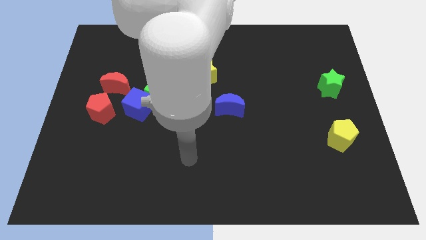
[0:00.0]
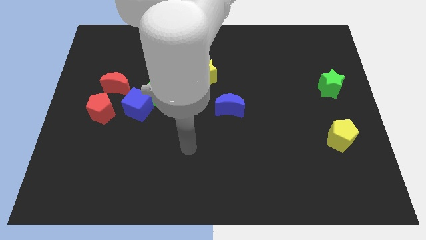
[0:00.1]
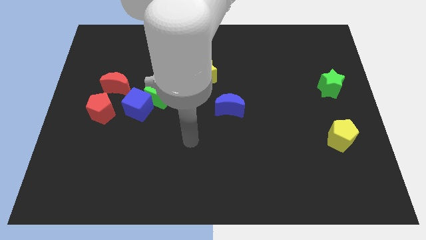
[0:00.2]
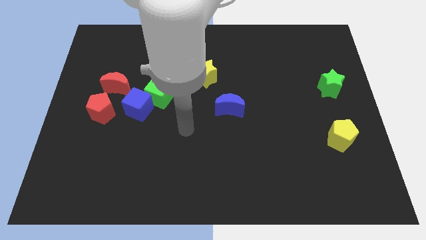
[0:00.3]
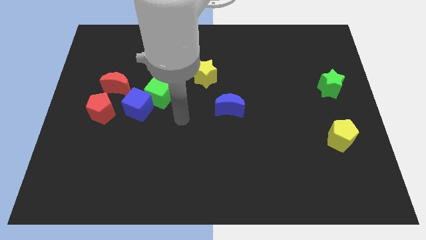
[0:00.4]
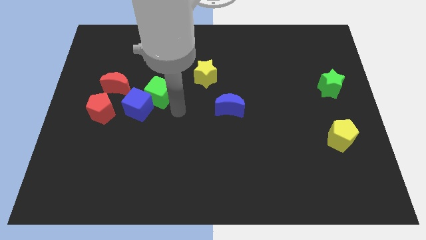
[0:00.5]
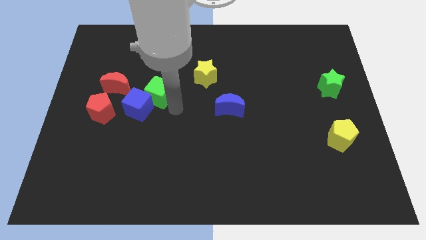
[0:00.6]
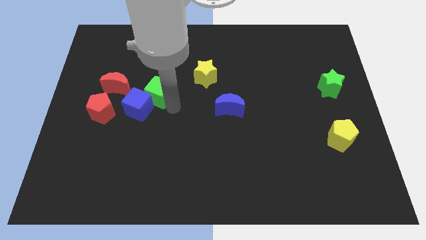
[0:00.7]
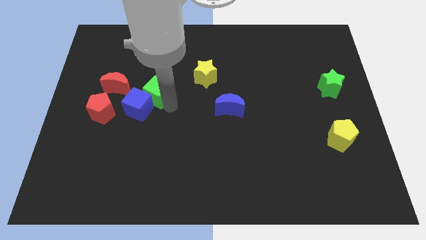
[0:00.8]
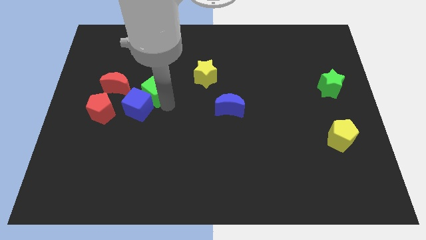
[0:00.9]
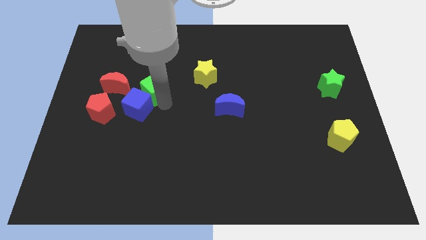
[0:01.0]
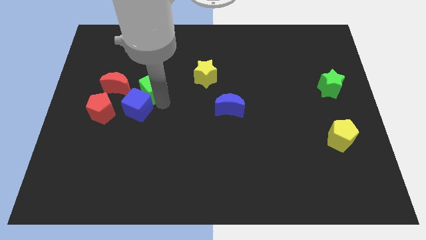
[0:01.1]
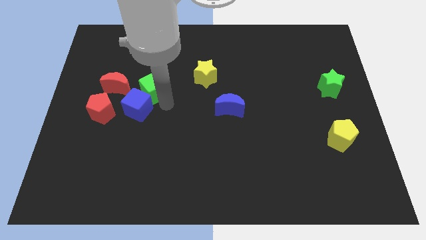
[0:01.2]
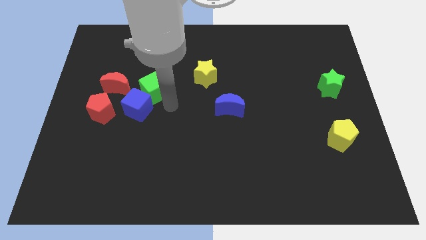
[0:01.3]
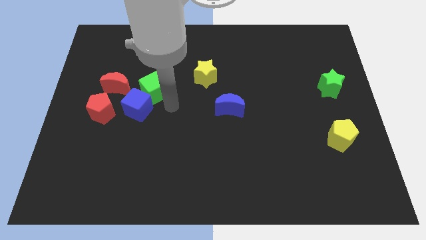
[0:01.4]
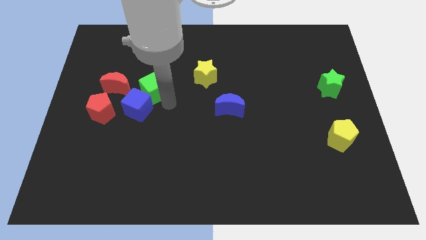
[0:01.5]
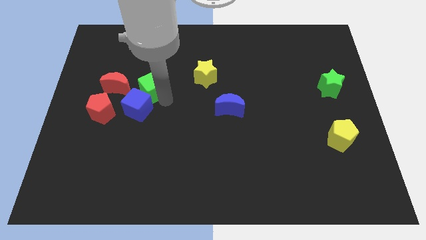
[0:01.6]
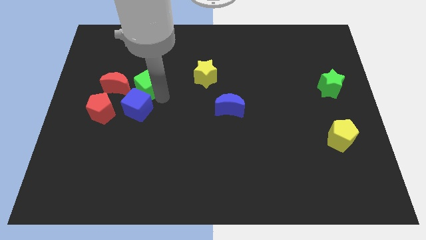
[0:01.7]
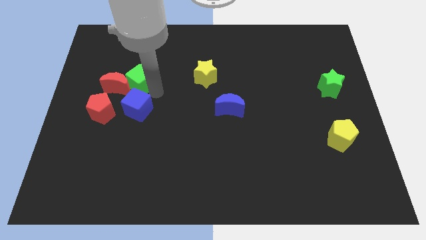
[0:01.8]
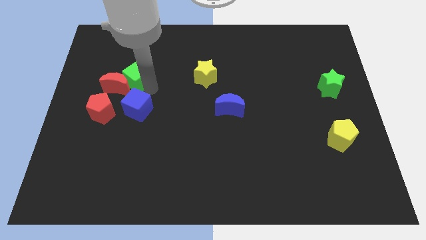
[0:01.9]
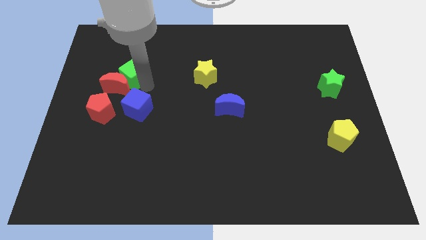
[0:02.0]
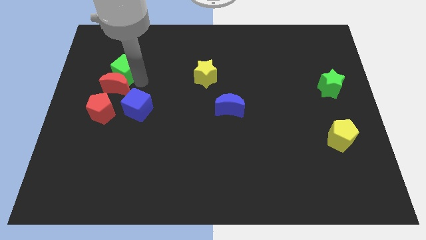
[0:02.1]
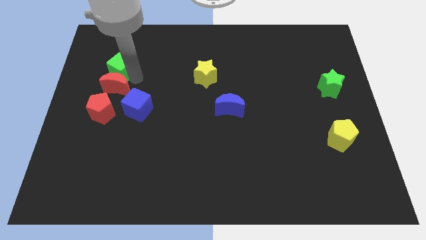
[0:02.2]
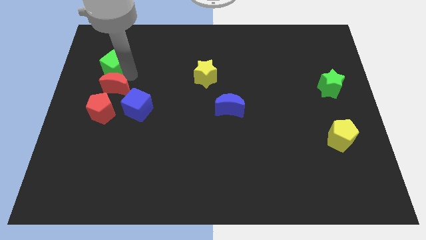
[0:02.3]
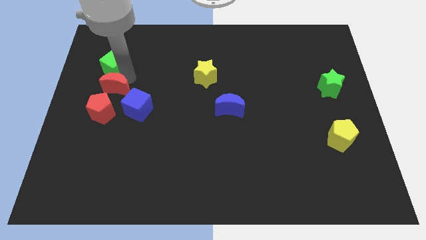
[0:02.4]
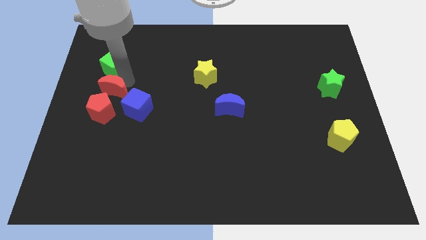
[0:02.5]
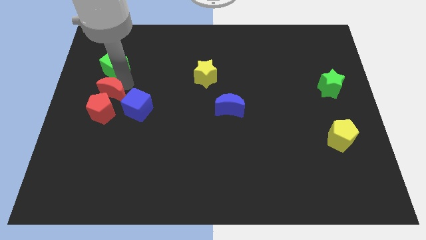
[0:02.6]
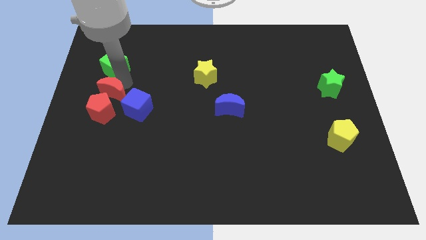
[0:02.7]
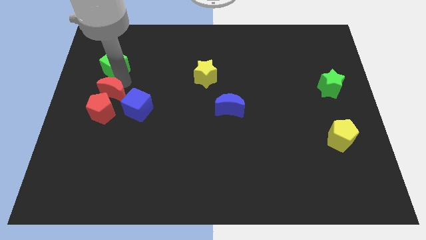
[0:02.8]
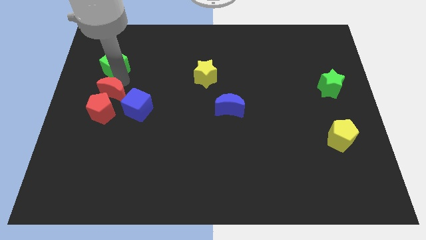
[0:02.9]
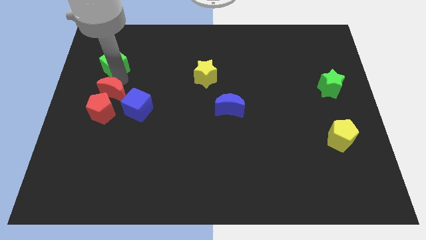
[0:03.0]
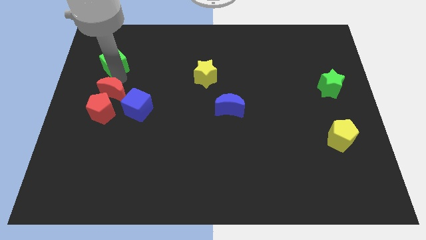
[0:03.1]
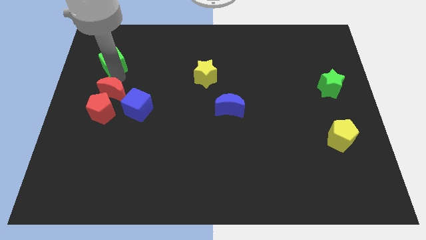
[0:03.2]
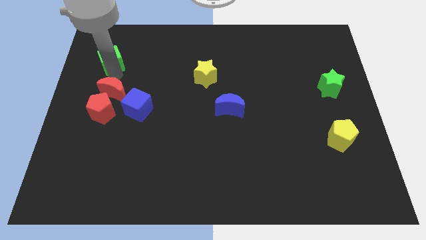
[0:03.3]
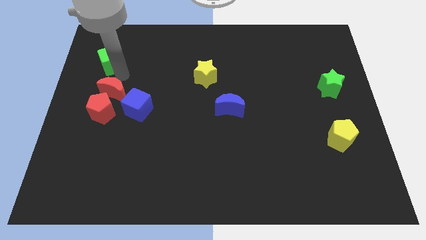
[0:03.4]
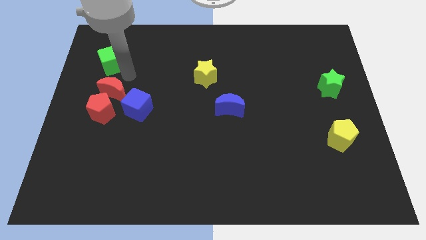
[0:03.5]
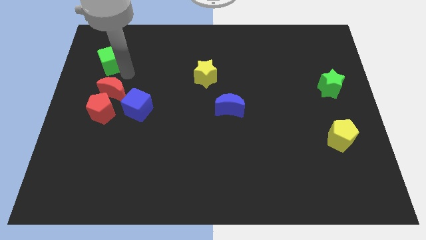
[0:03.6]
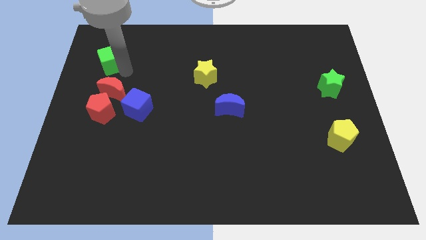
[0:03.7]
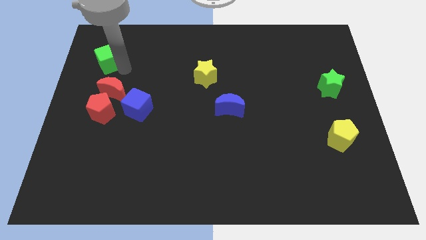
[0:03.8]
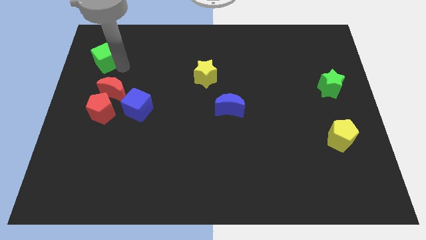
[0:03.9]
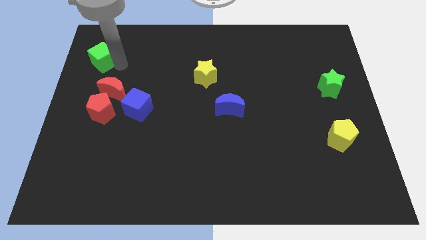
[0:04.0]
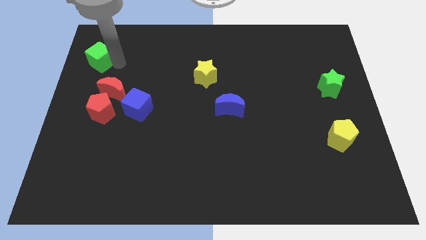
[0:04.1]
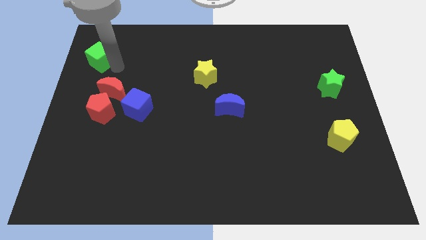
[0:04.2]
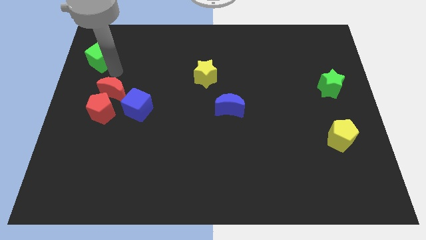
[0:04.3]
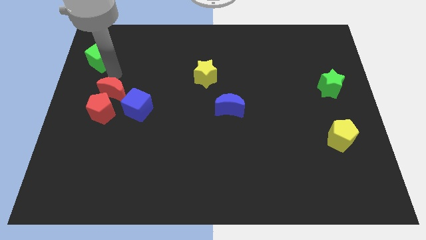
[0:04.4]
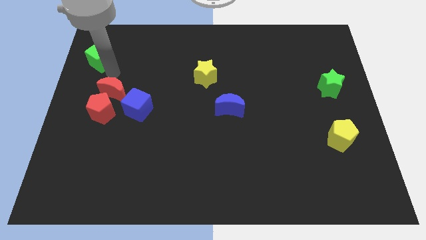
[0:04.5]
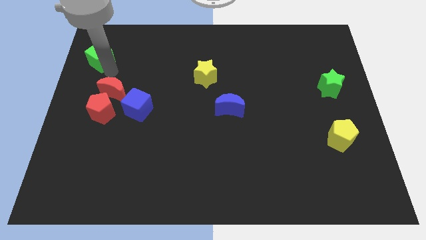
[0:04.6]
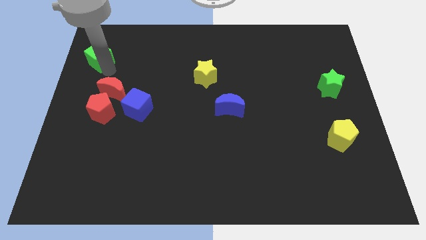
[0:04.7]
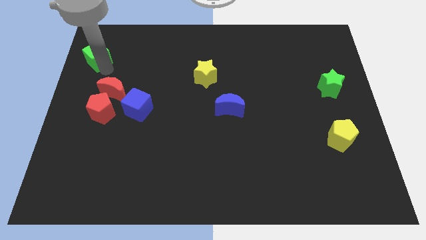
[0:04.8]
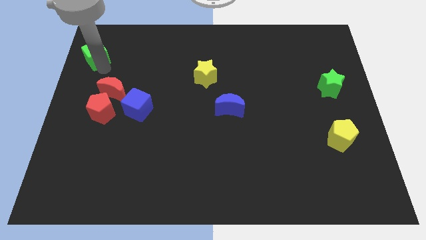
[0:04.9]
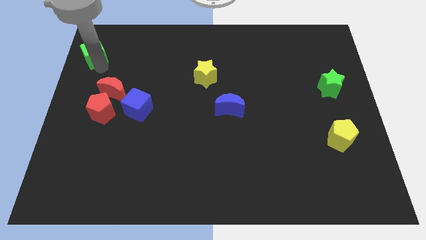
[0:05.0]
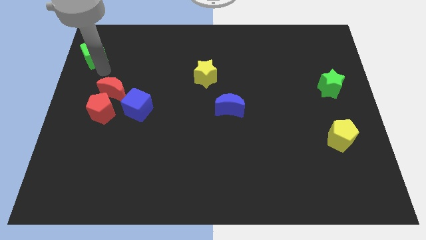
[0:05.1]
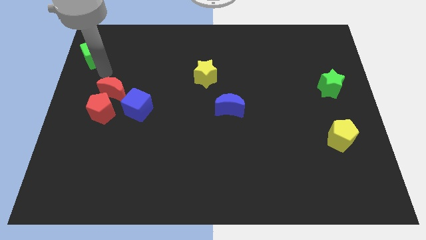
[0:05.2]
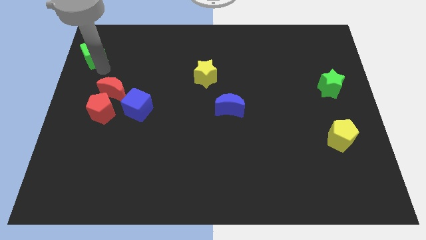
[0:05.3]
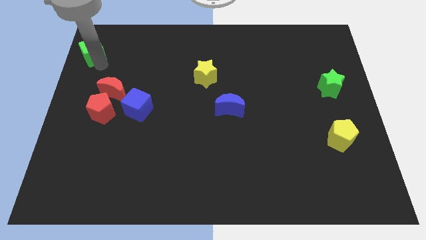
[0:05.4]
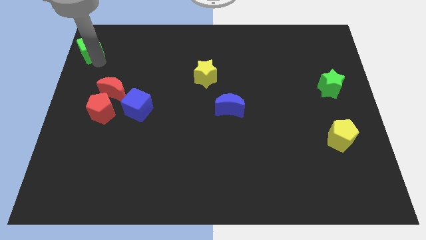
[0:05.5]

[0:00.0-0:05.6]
push the green cube to the upper left corner

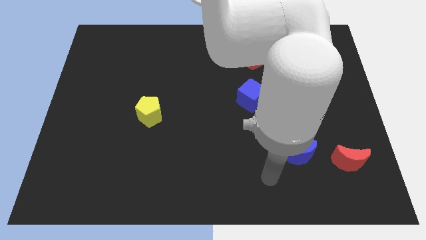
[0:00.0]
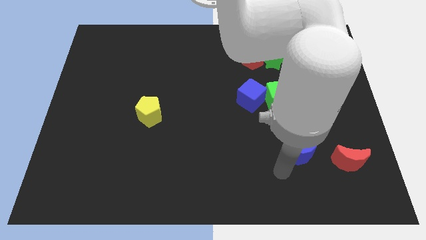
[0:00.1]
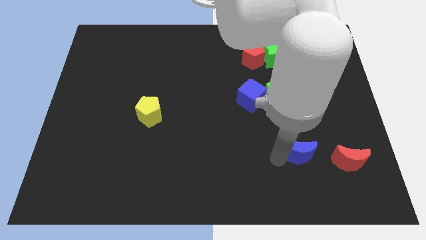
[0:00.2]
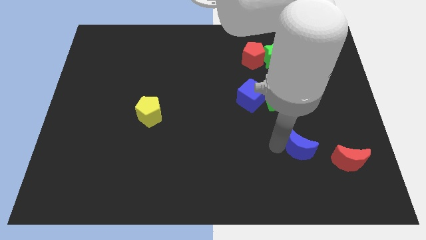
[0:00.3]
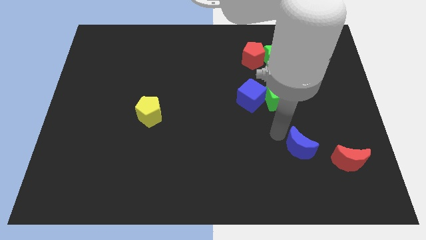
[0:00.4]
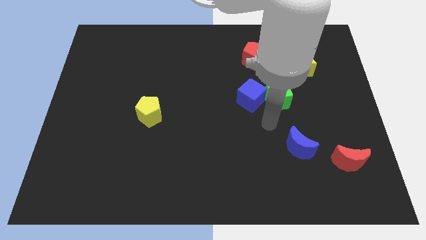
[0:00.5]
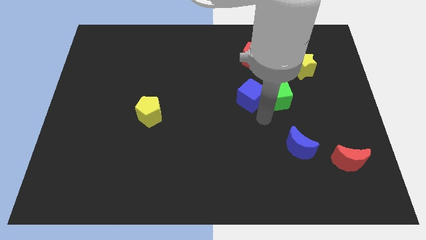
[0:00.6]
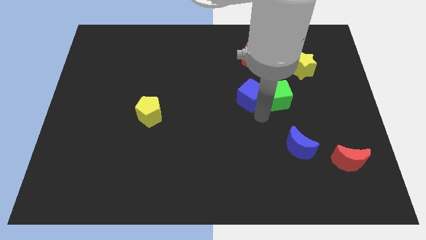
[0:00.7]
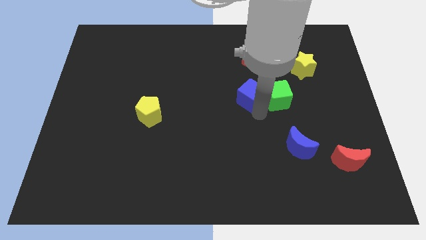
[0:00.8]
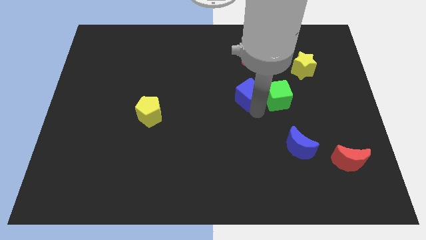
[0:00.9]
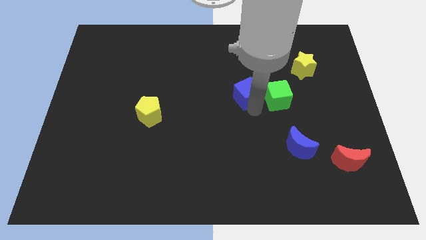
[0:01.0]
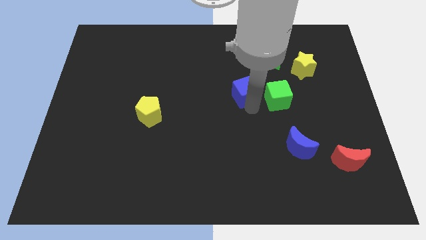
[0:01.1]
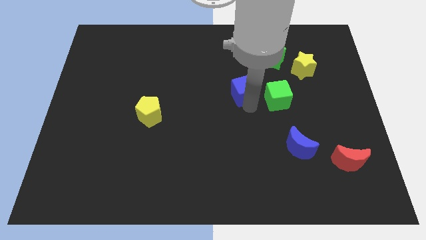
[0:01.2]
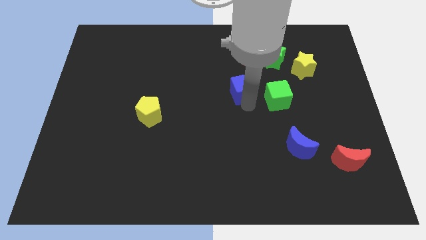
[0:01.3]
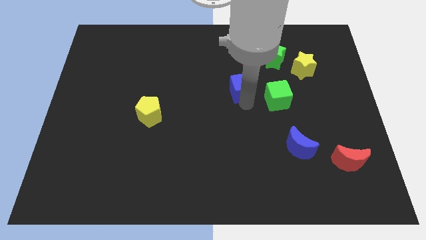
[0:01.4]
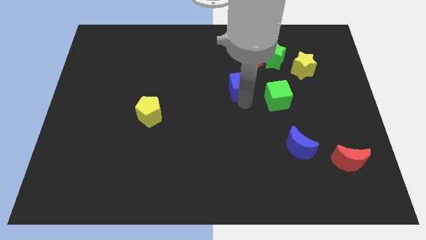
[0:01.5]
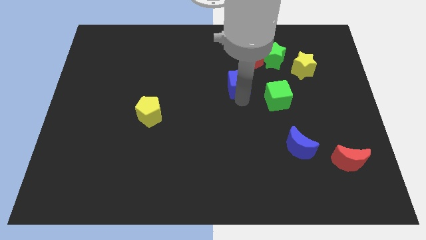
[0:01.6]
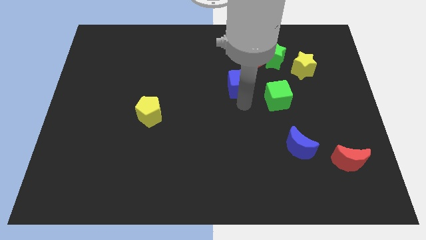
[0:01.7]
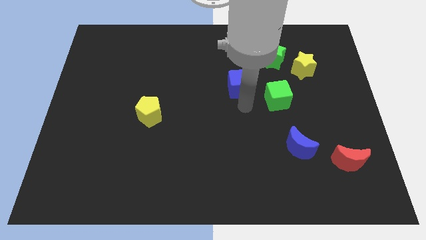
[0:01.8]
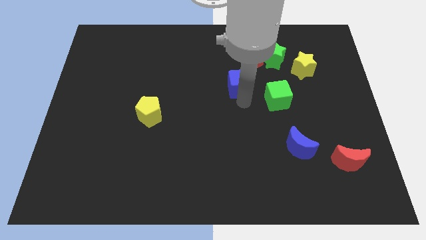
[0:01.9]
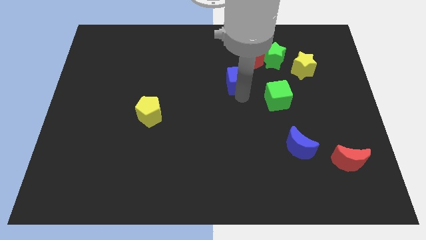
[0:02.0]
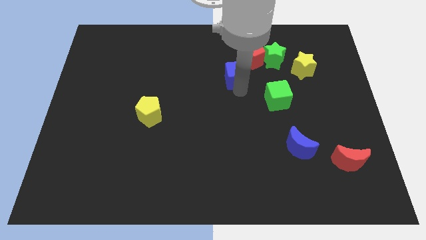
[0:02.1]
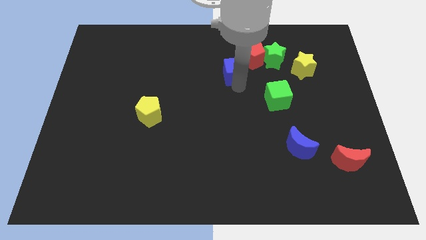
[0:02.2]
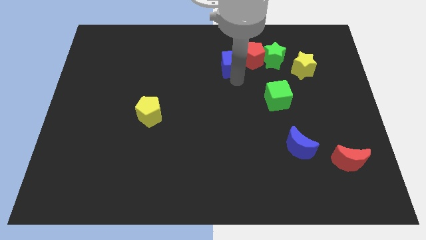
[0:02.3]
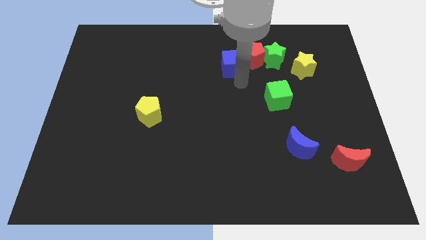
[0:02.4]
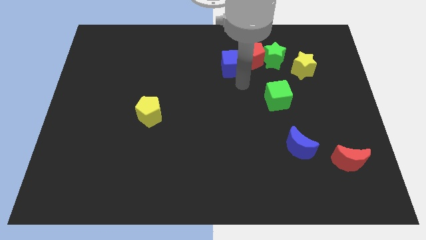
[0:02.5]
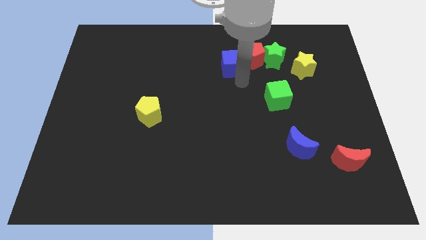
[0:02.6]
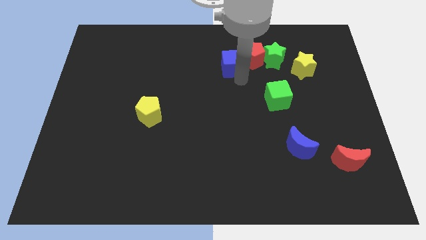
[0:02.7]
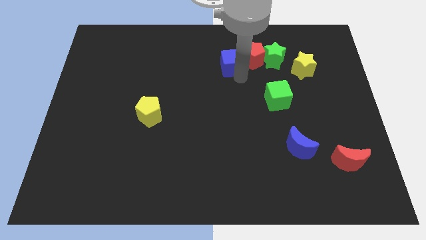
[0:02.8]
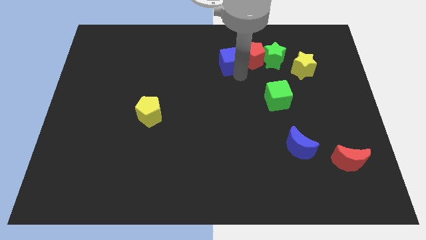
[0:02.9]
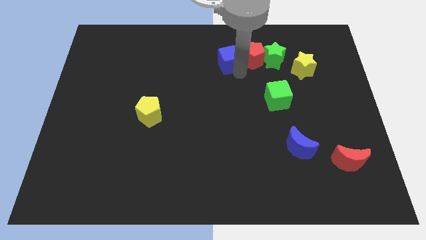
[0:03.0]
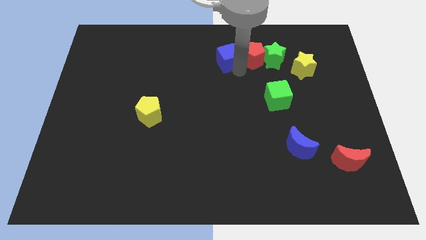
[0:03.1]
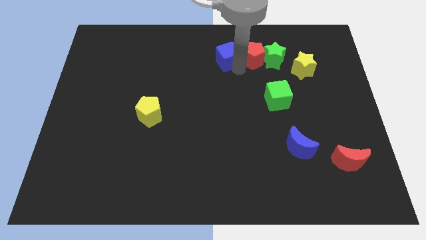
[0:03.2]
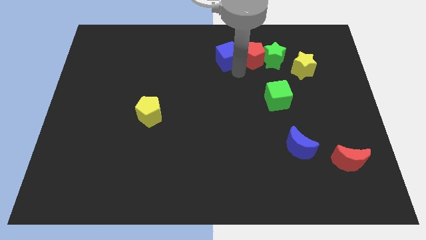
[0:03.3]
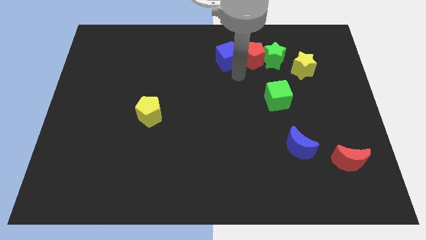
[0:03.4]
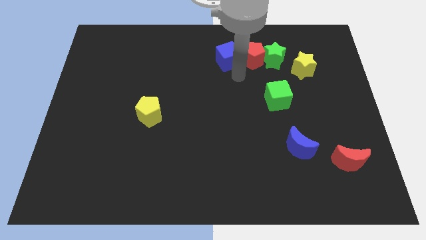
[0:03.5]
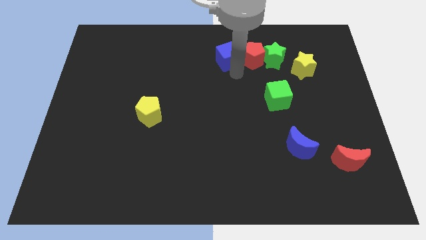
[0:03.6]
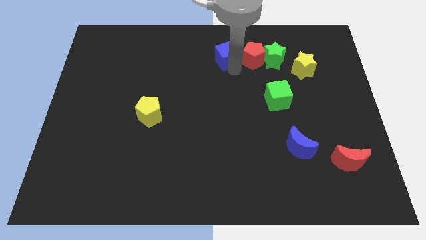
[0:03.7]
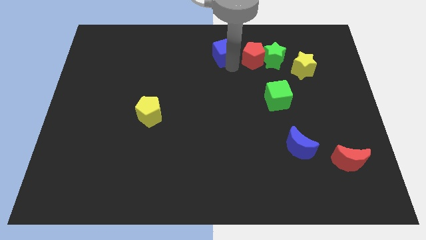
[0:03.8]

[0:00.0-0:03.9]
put the blue cube to the towards your base
